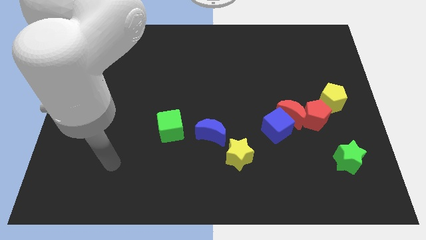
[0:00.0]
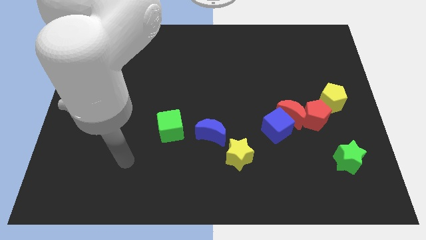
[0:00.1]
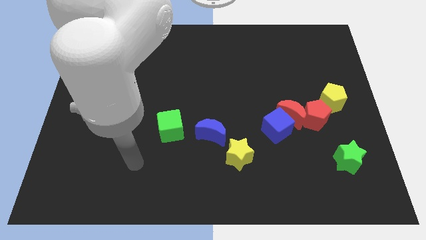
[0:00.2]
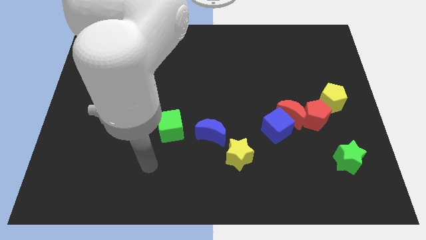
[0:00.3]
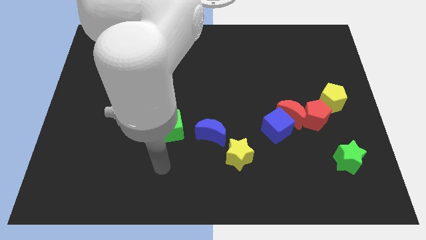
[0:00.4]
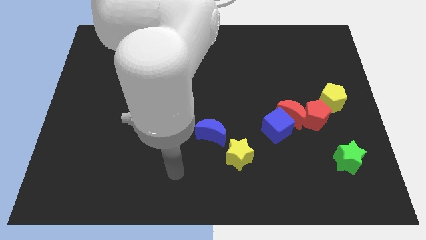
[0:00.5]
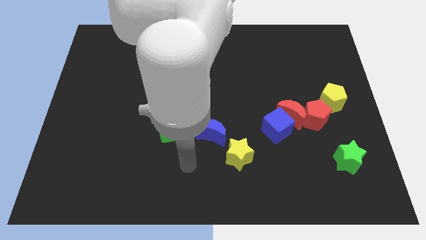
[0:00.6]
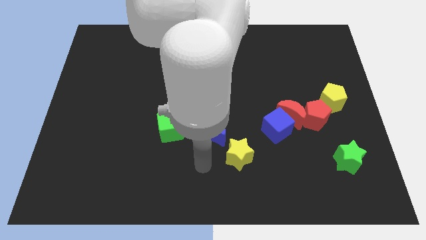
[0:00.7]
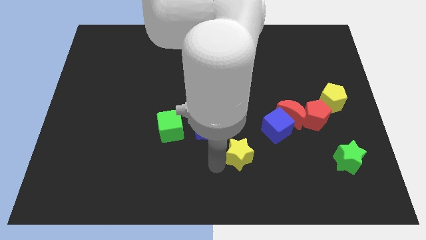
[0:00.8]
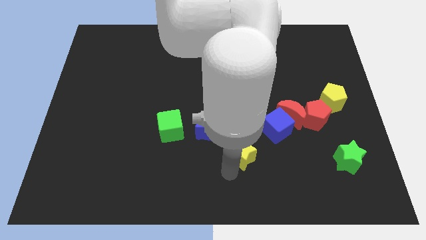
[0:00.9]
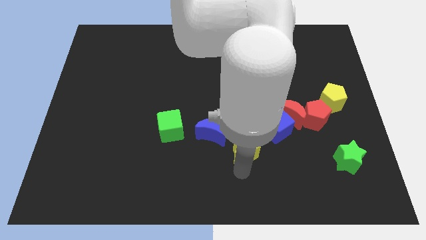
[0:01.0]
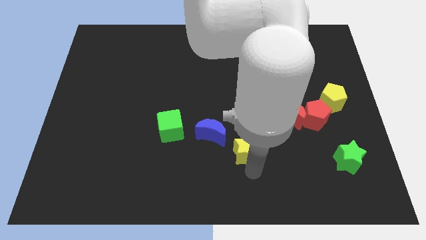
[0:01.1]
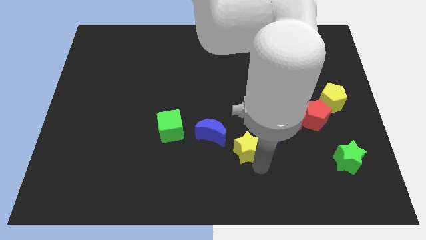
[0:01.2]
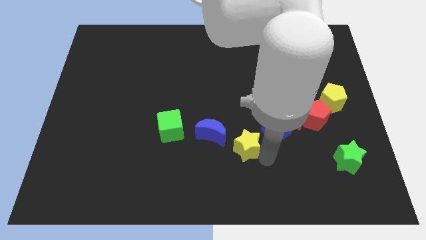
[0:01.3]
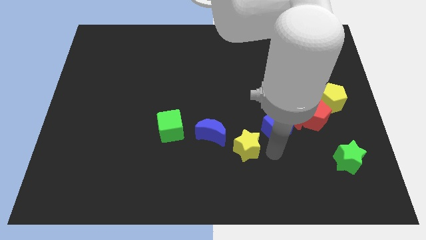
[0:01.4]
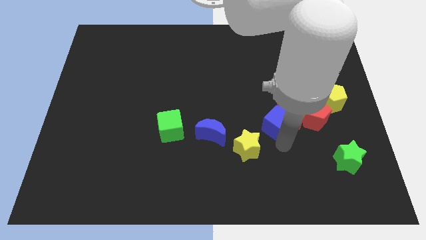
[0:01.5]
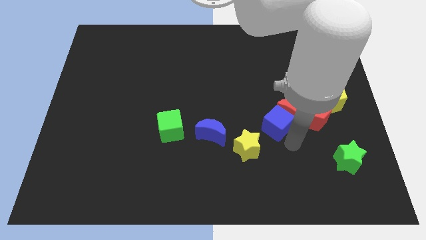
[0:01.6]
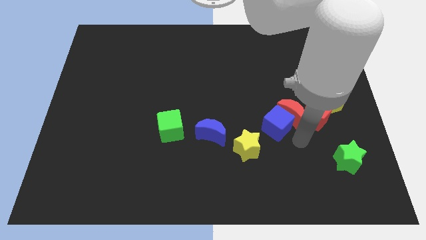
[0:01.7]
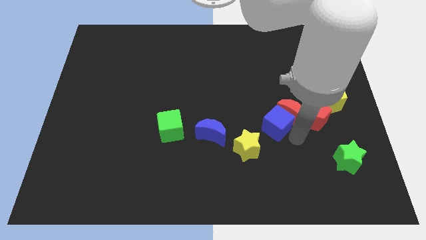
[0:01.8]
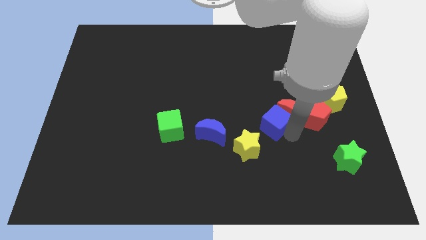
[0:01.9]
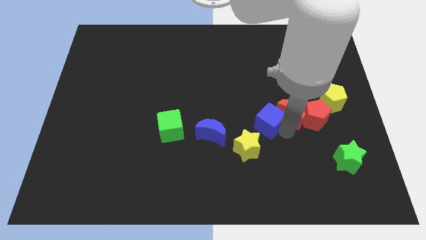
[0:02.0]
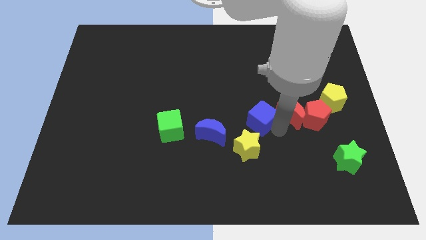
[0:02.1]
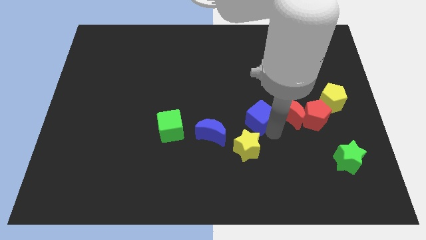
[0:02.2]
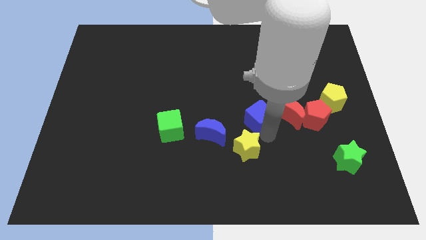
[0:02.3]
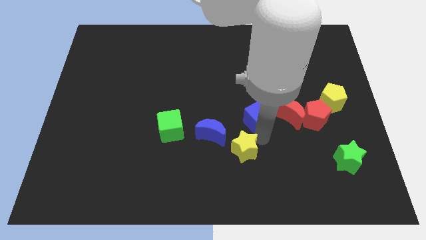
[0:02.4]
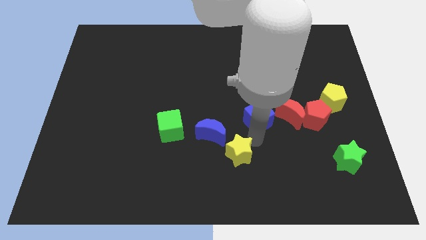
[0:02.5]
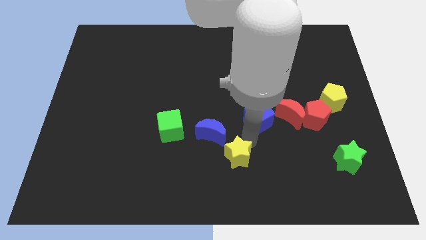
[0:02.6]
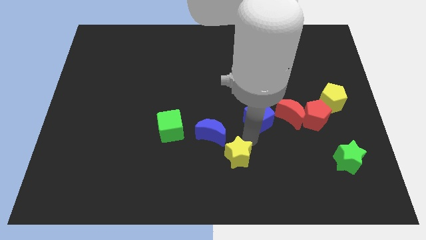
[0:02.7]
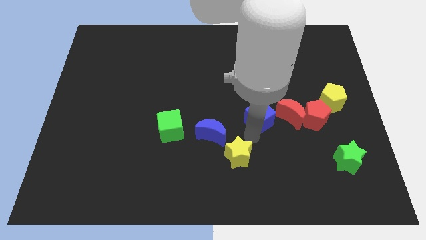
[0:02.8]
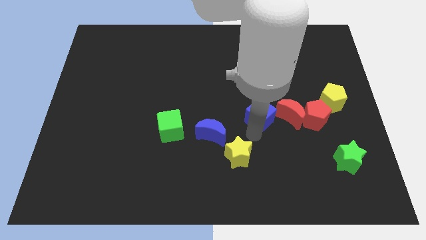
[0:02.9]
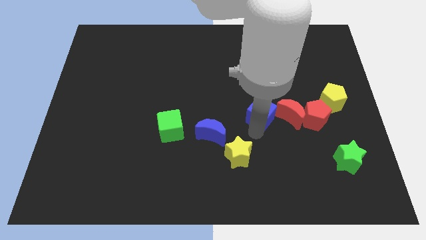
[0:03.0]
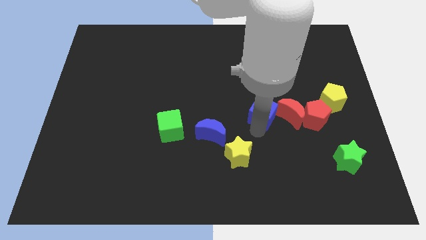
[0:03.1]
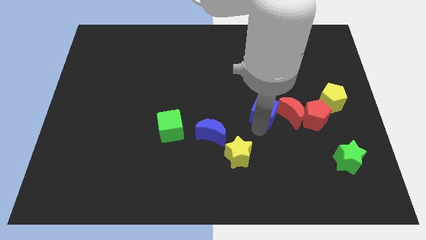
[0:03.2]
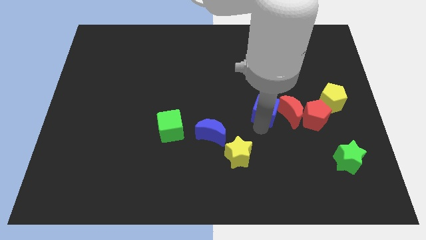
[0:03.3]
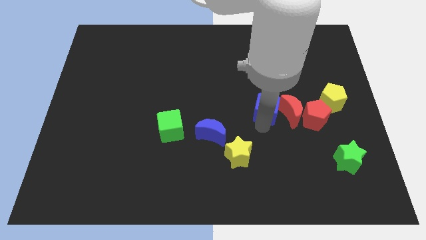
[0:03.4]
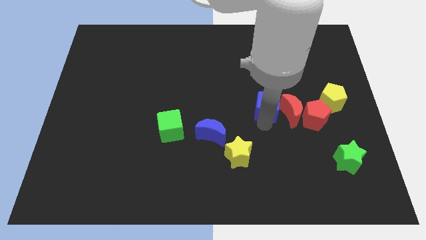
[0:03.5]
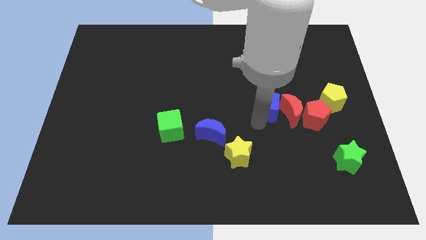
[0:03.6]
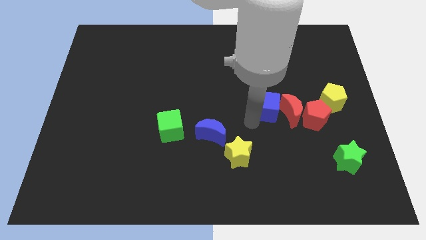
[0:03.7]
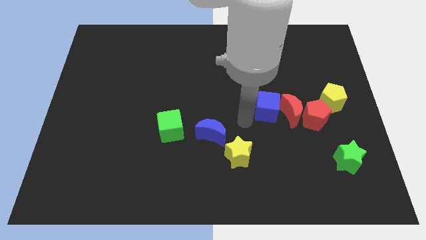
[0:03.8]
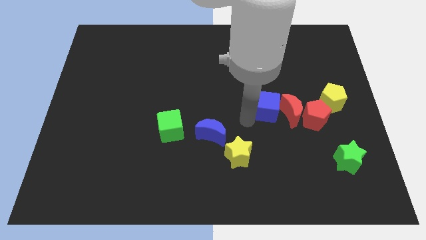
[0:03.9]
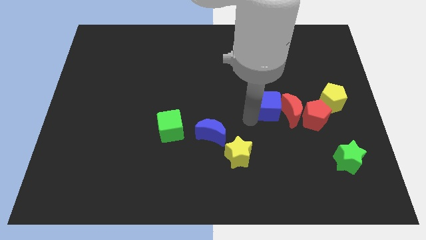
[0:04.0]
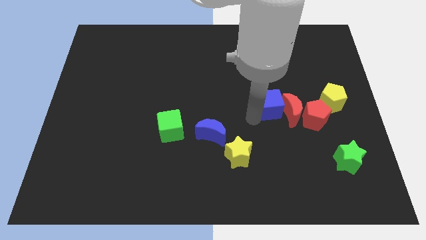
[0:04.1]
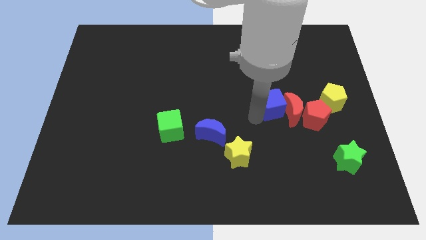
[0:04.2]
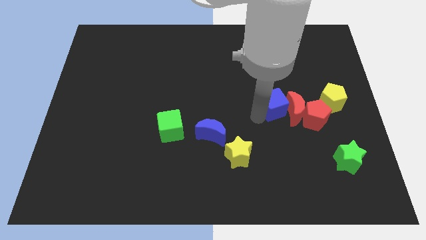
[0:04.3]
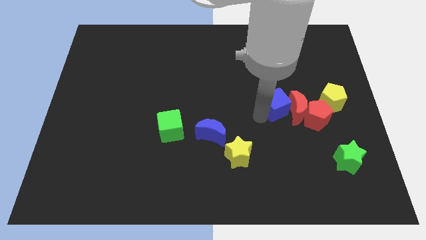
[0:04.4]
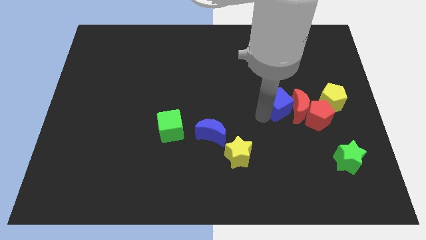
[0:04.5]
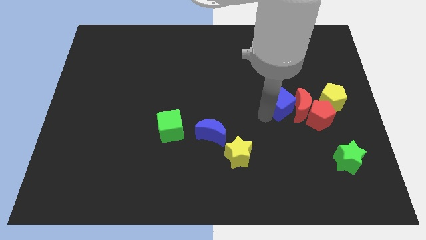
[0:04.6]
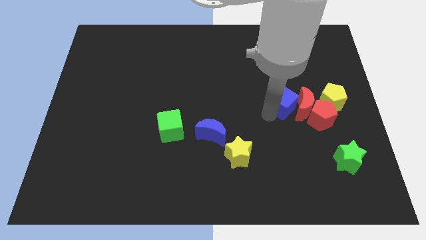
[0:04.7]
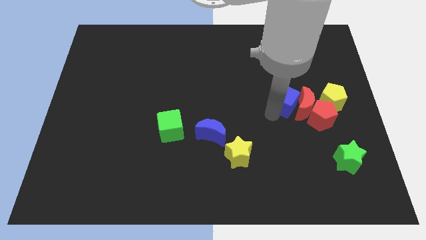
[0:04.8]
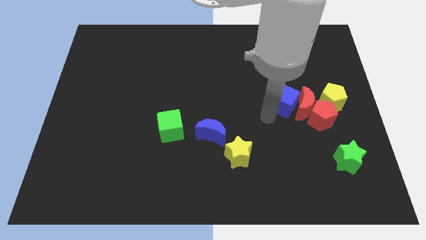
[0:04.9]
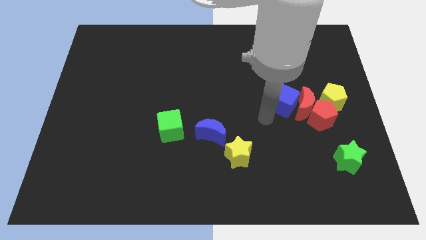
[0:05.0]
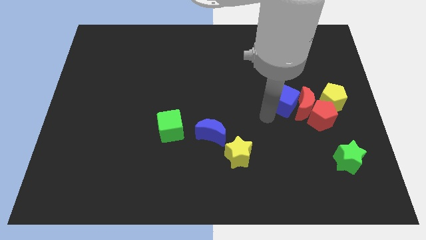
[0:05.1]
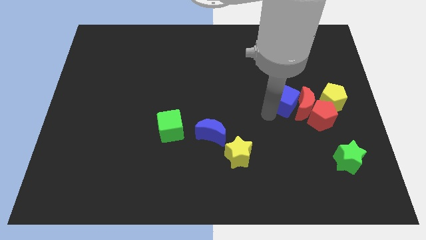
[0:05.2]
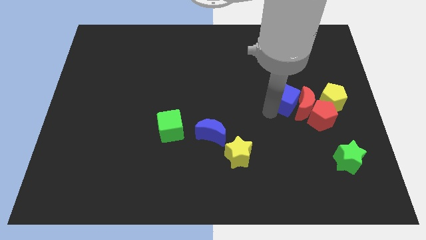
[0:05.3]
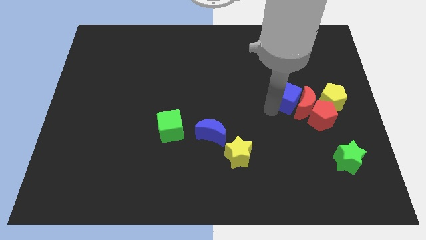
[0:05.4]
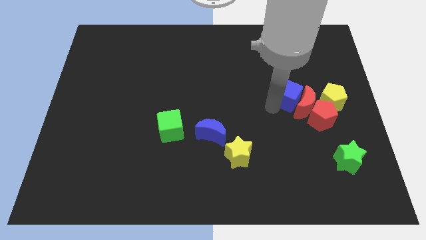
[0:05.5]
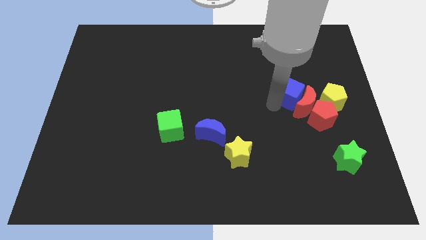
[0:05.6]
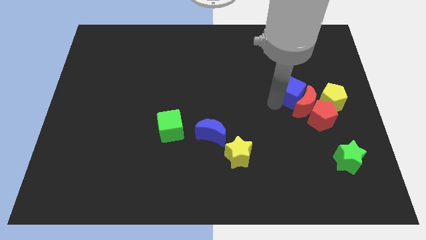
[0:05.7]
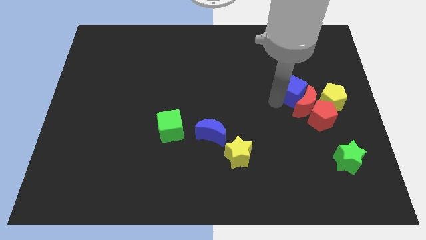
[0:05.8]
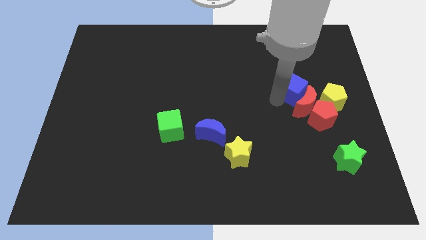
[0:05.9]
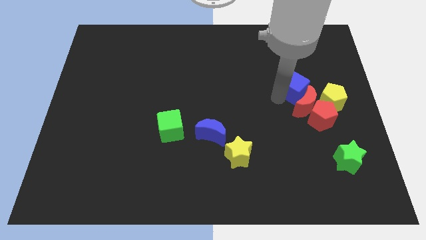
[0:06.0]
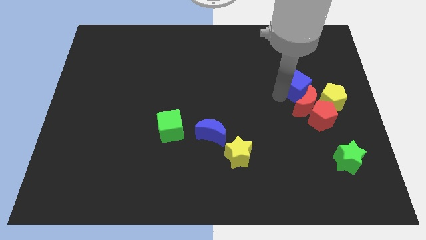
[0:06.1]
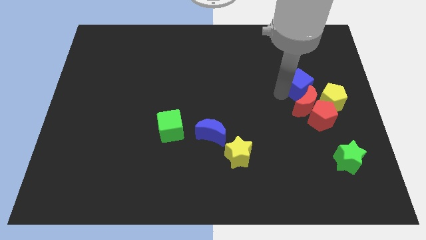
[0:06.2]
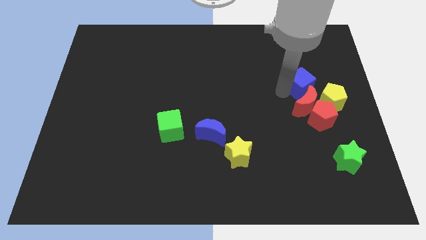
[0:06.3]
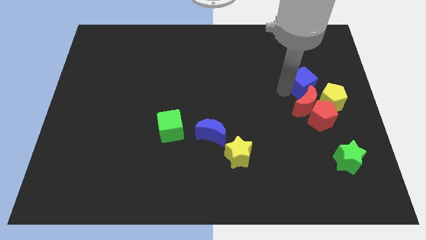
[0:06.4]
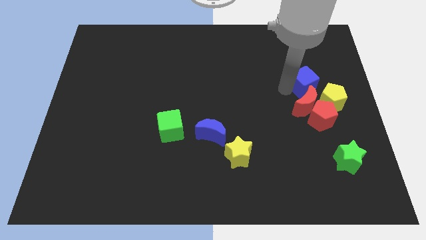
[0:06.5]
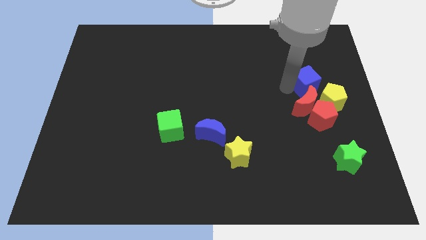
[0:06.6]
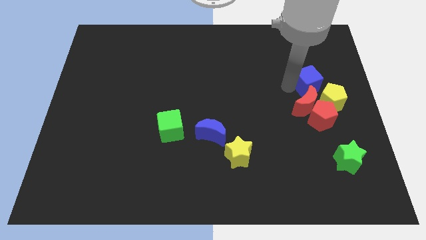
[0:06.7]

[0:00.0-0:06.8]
slide the blue cube above the yellow pentagon

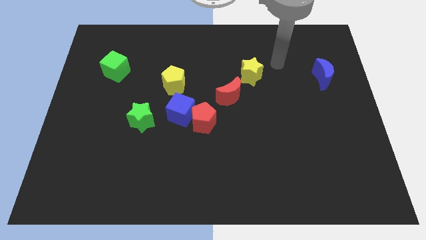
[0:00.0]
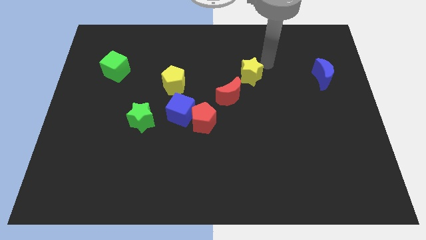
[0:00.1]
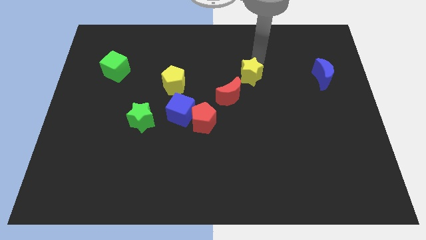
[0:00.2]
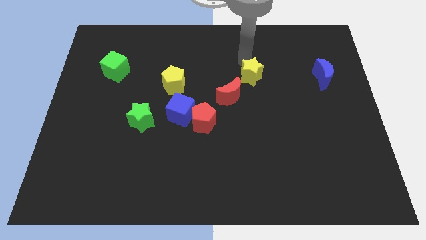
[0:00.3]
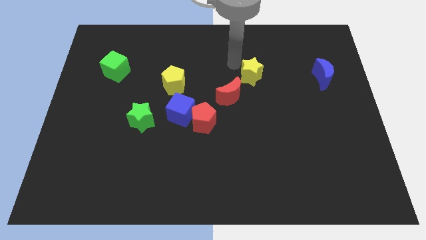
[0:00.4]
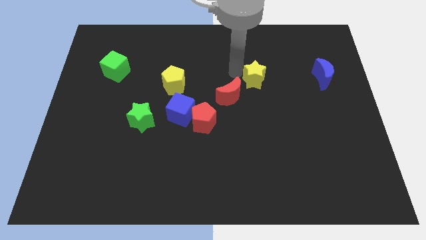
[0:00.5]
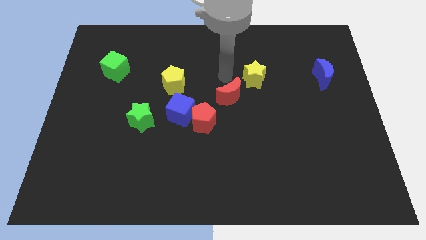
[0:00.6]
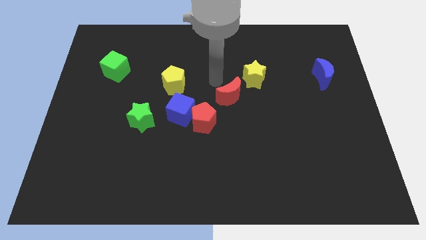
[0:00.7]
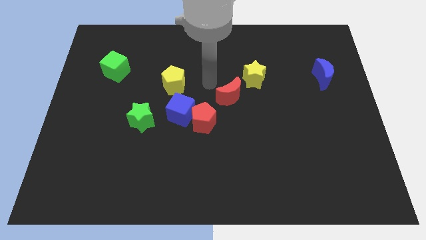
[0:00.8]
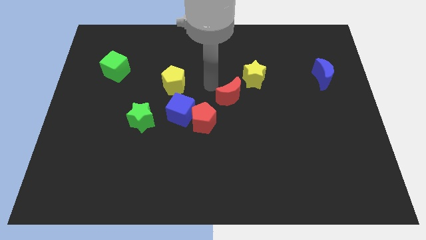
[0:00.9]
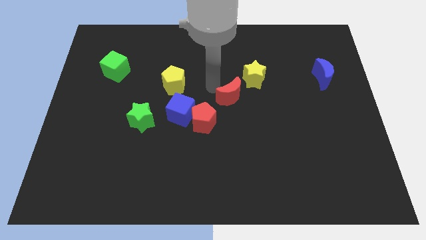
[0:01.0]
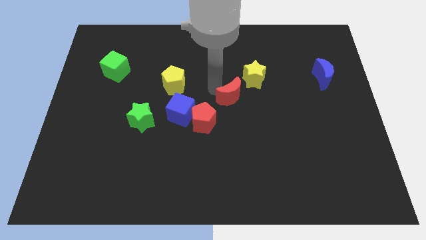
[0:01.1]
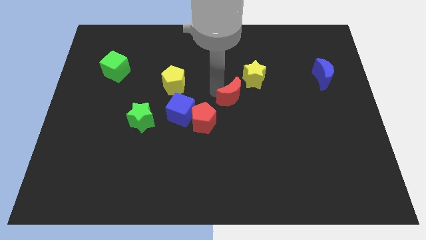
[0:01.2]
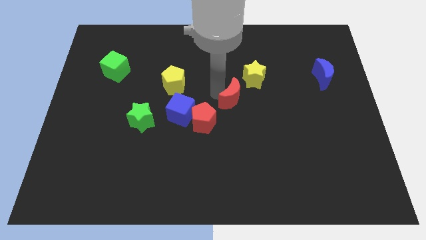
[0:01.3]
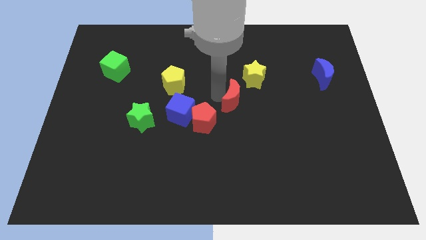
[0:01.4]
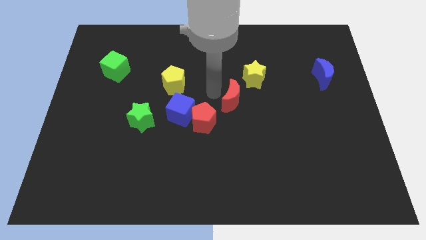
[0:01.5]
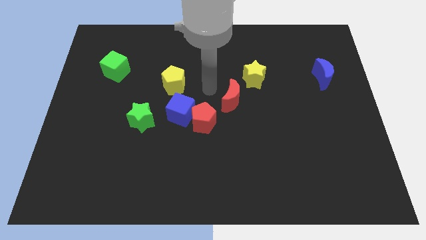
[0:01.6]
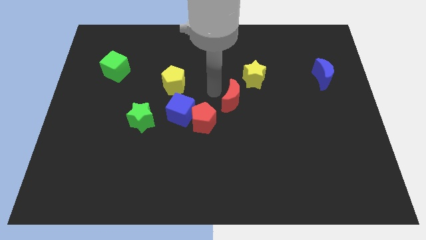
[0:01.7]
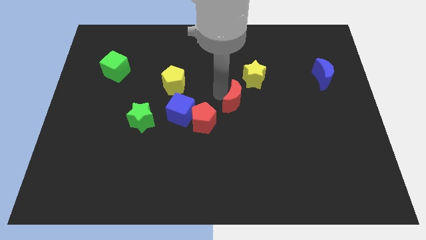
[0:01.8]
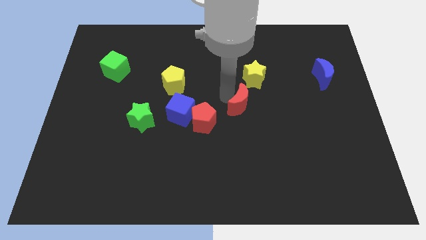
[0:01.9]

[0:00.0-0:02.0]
slide the red moon below the yellow star
